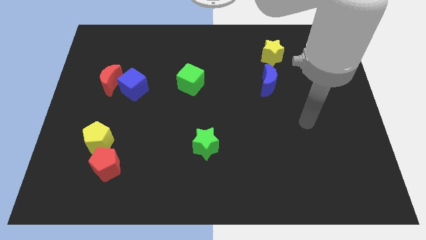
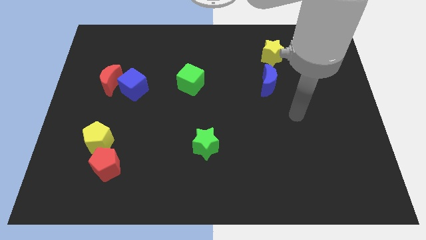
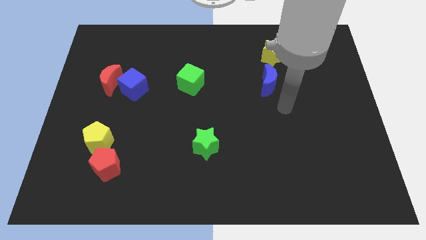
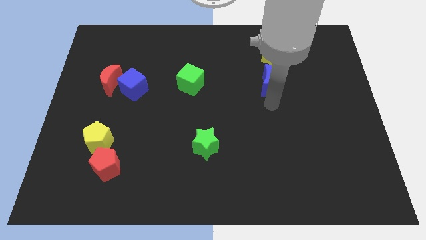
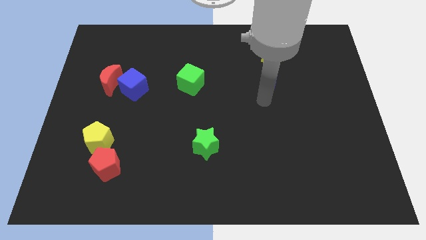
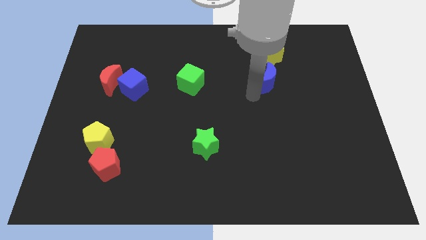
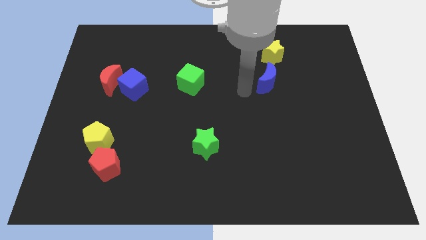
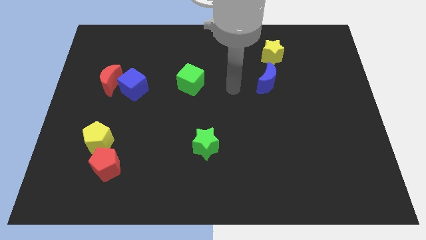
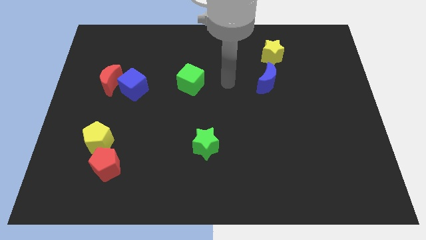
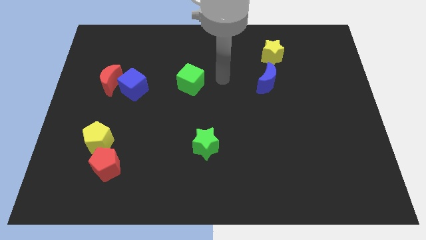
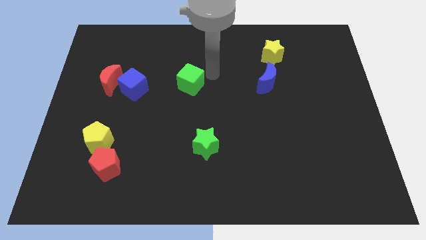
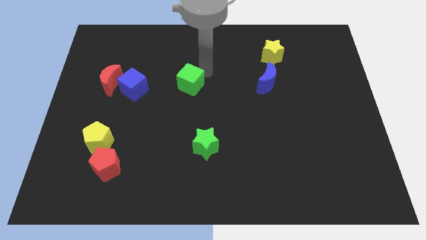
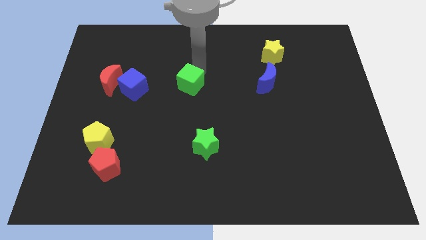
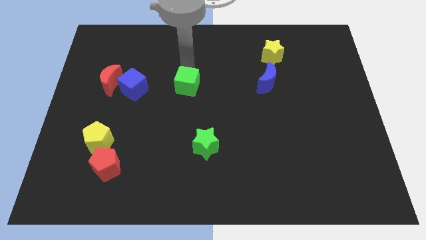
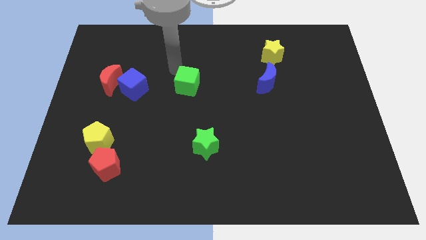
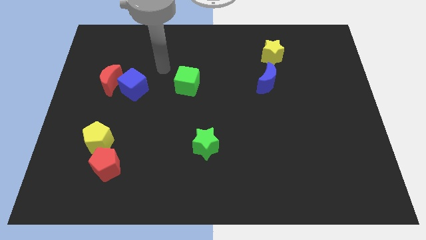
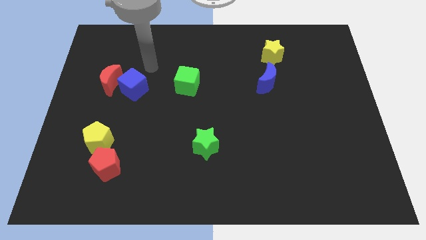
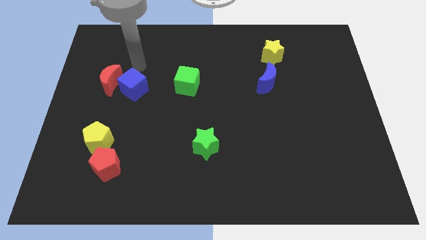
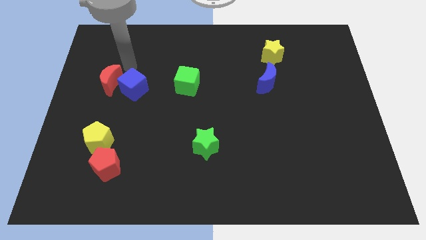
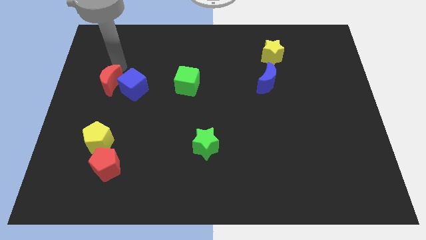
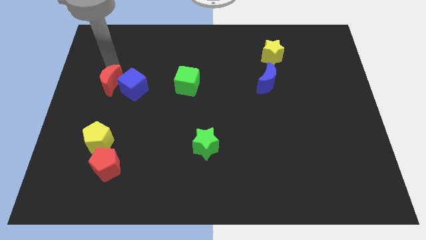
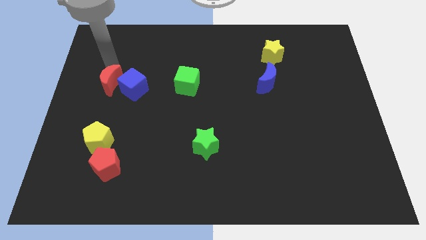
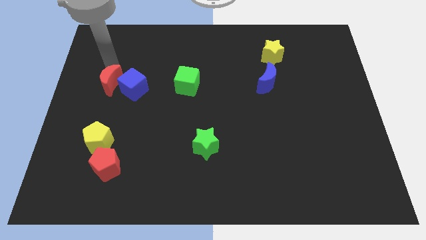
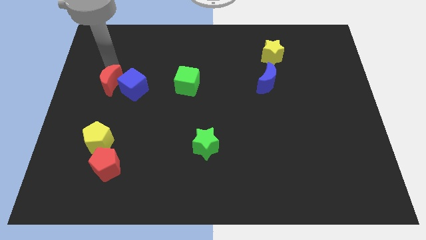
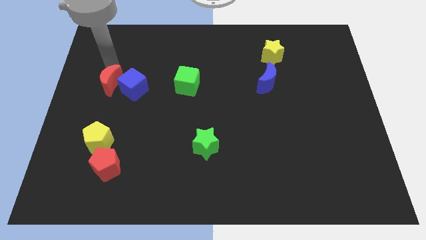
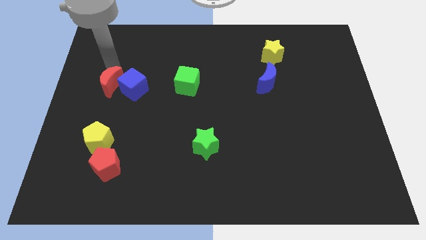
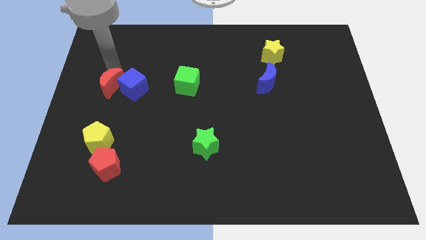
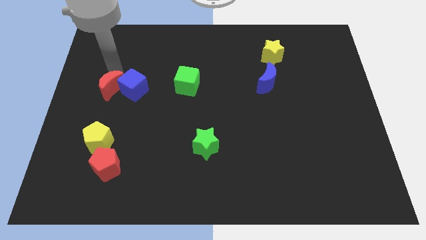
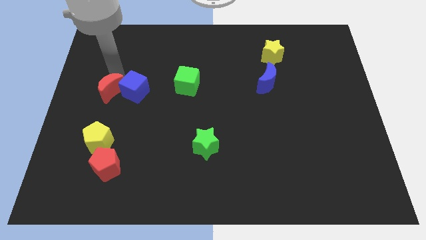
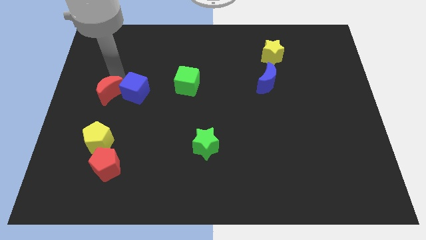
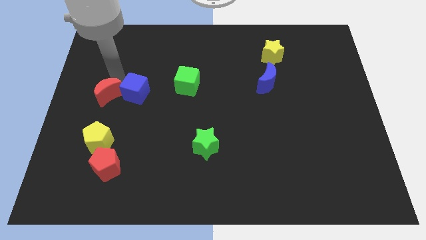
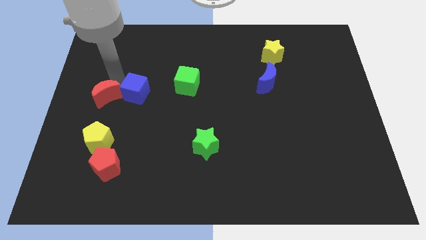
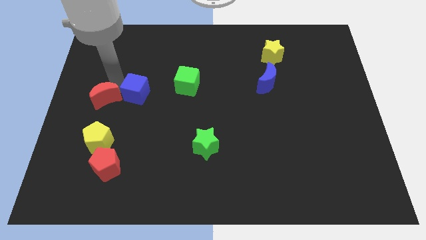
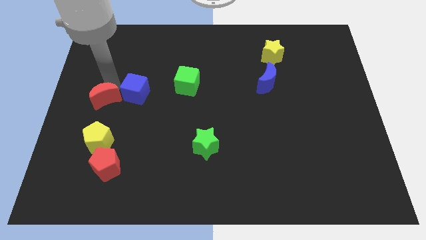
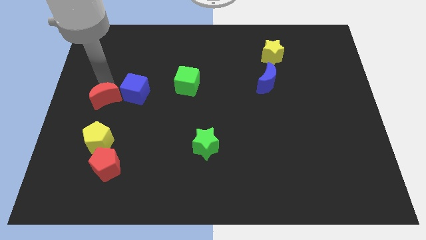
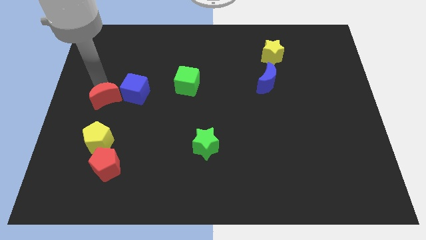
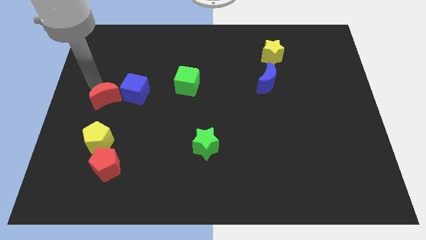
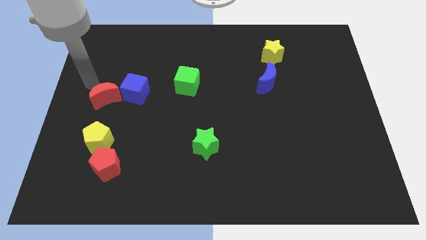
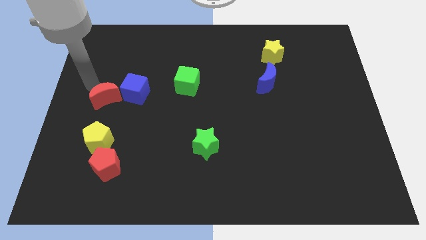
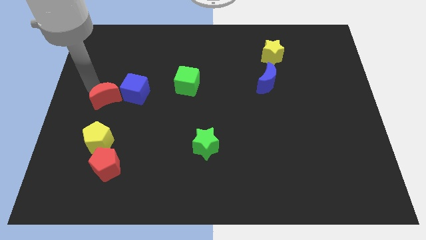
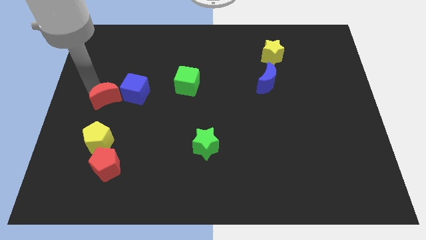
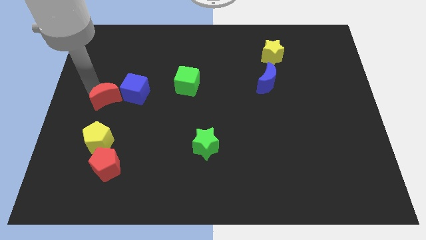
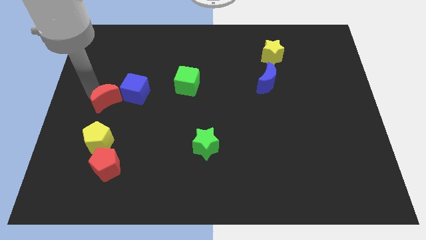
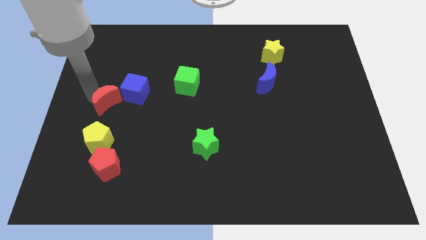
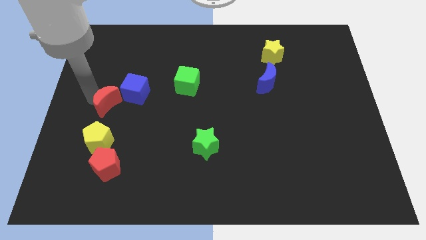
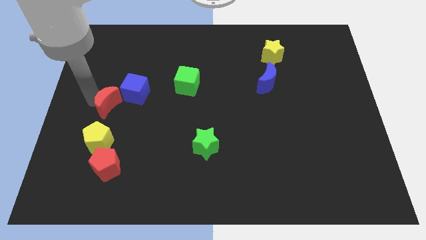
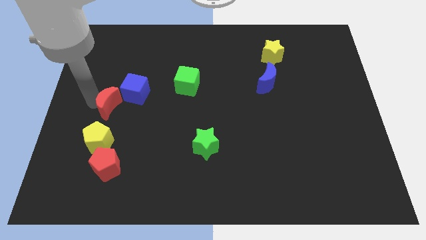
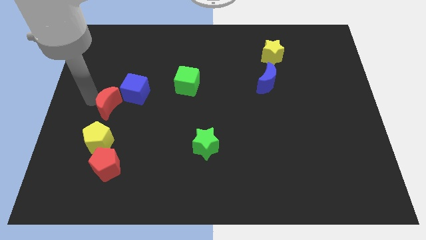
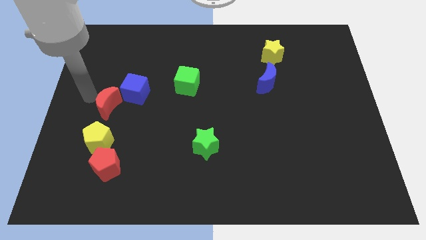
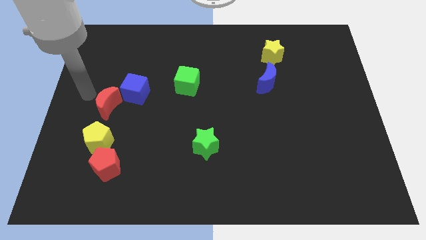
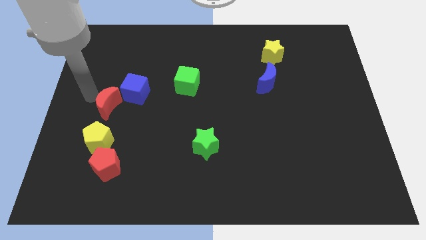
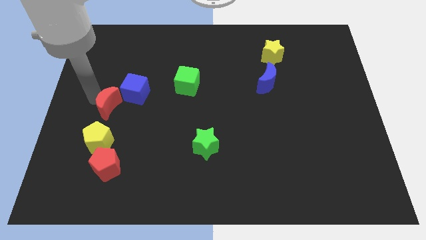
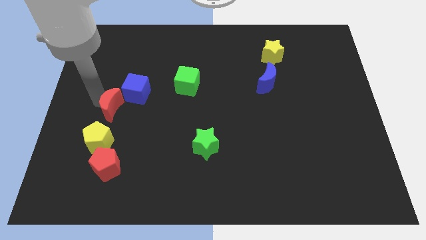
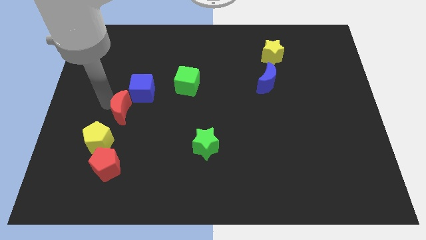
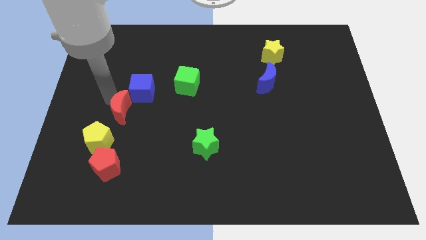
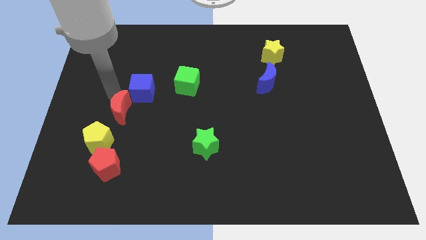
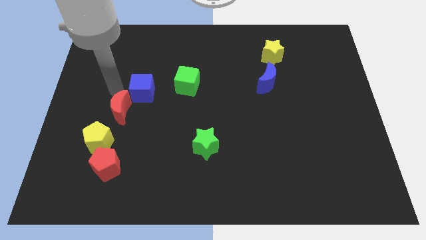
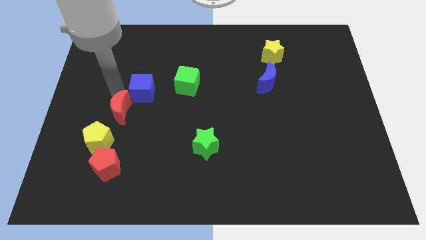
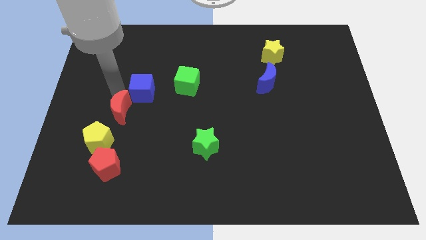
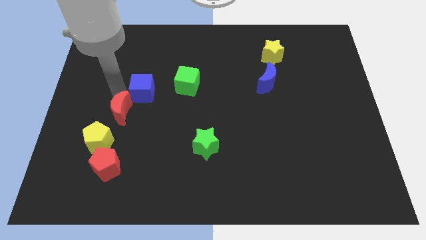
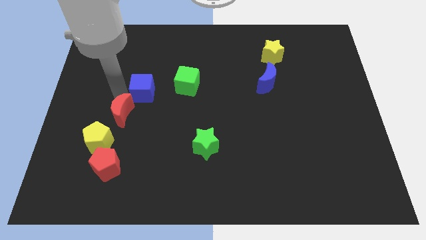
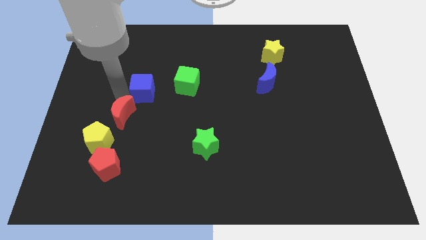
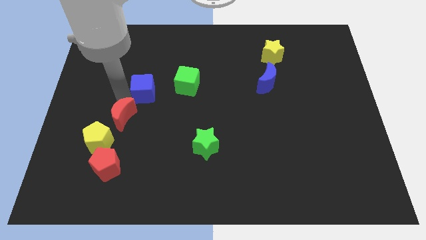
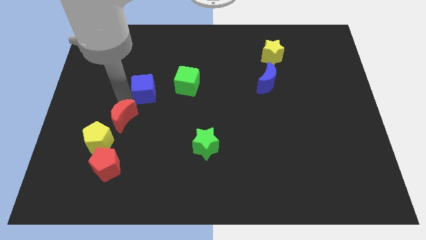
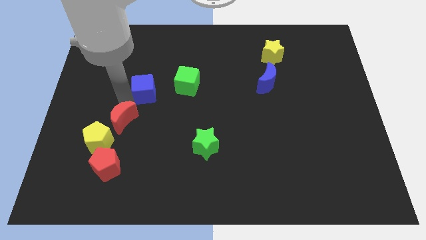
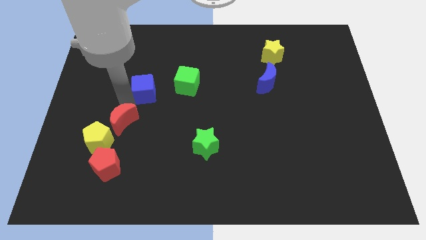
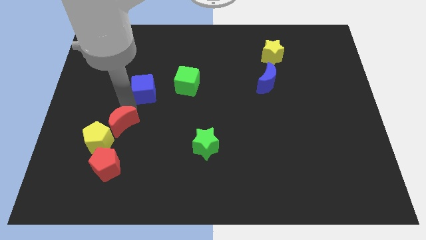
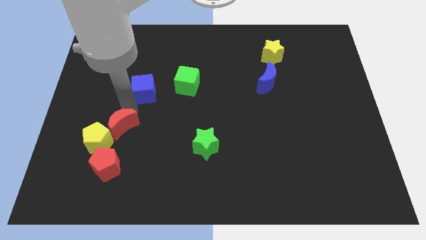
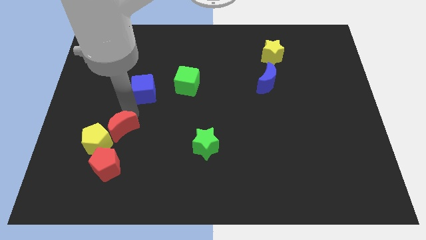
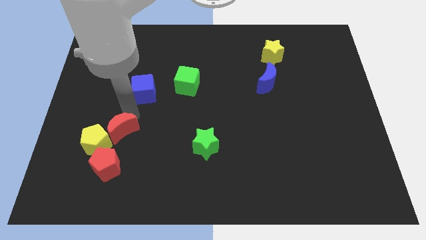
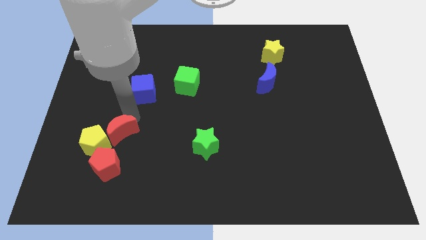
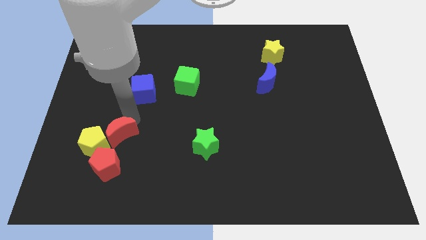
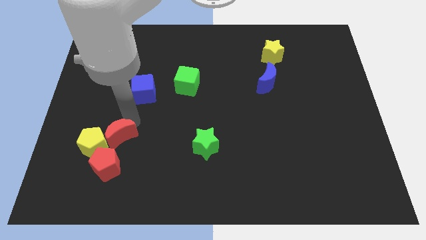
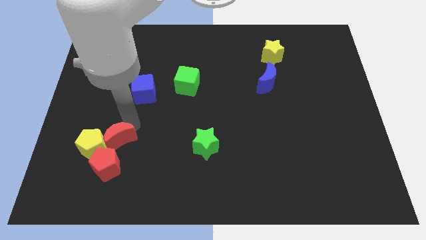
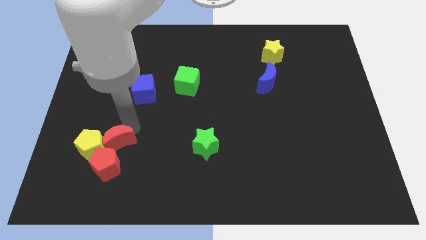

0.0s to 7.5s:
put the red moon close to the red pentagon

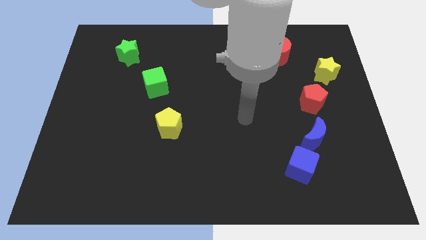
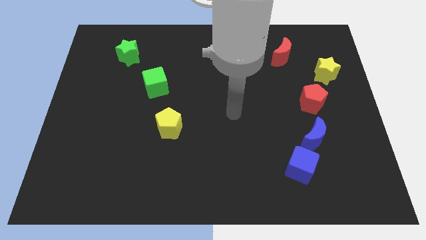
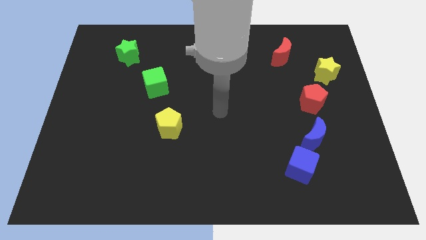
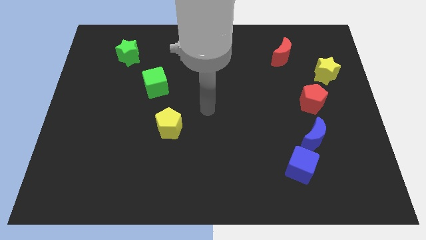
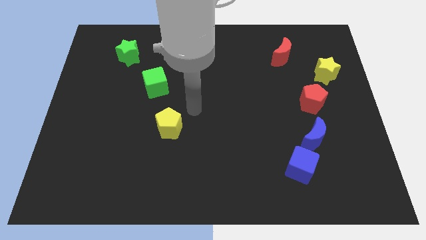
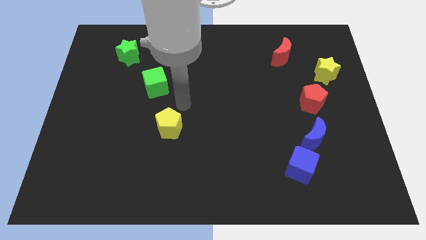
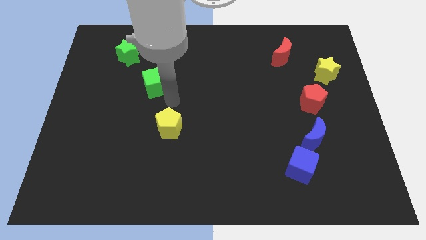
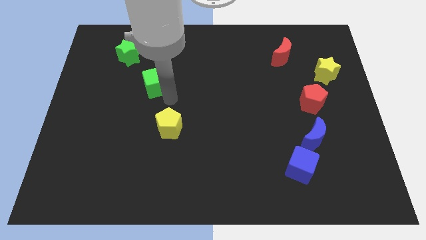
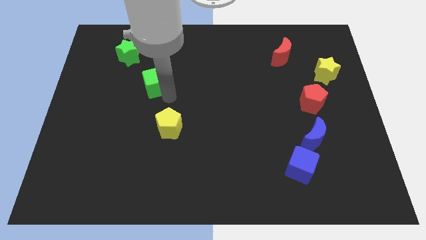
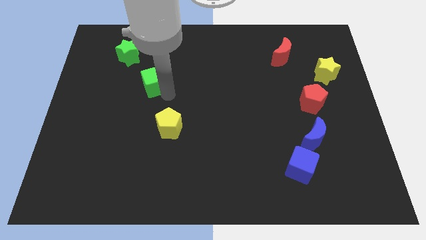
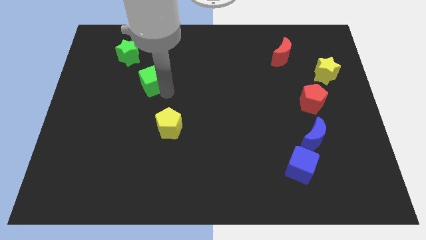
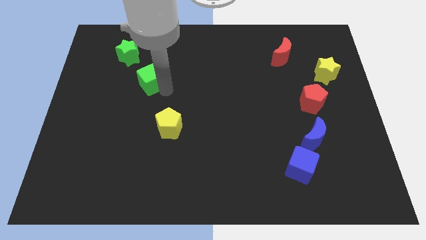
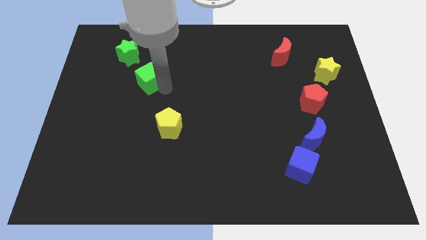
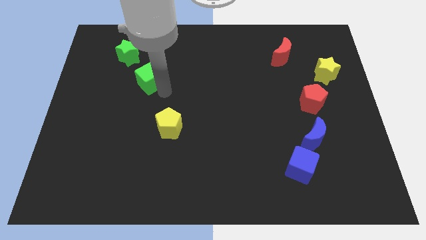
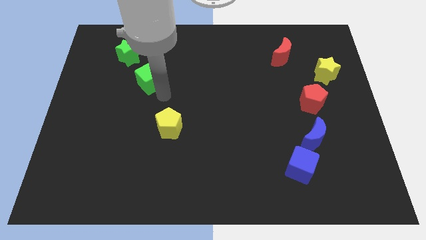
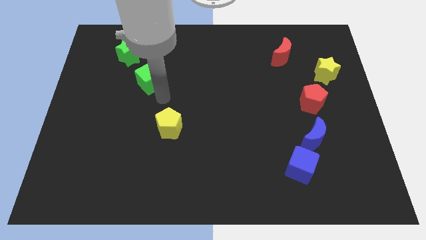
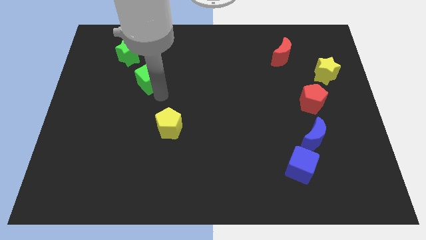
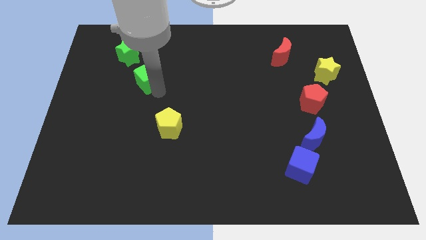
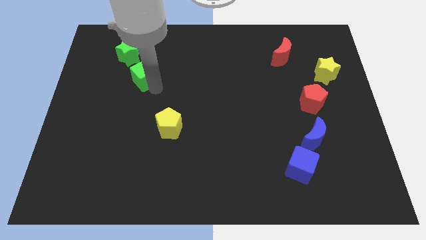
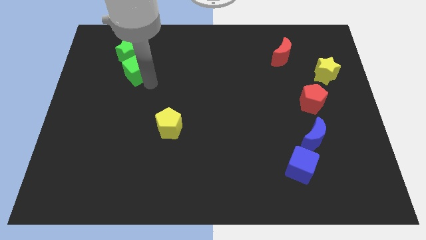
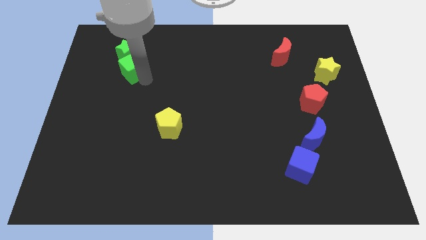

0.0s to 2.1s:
put the green cube to the green star
